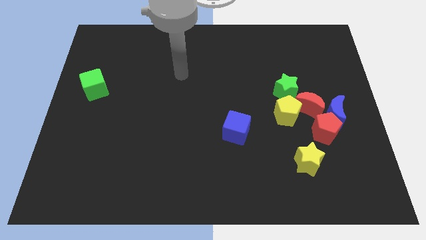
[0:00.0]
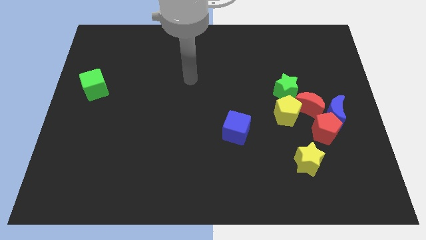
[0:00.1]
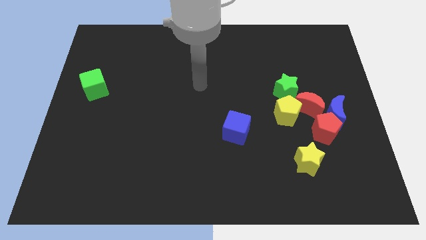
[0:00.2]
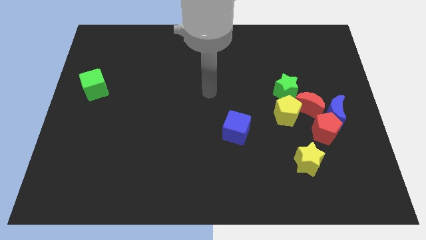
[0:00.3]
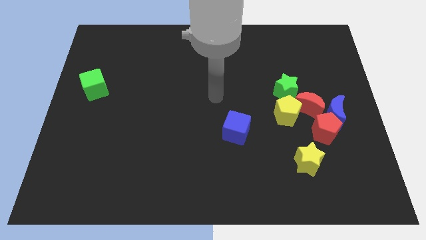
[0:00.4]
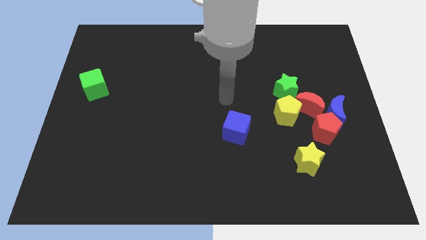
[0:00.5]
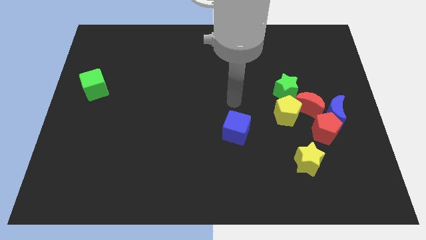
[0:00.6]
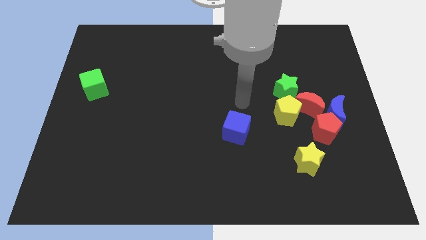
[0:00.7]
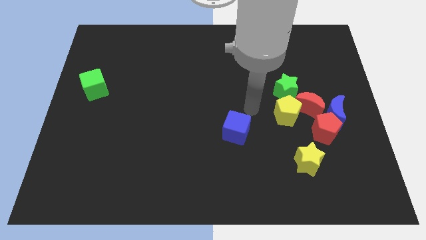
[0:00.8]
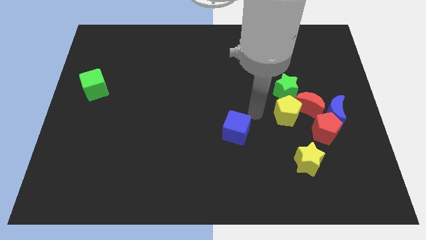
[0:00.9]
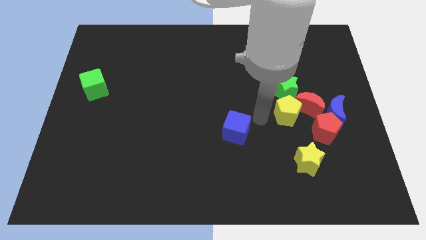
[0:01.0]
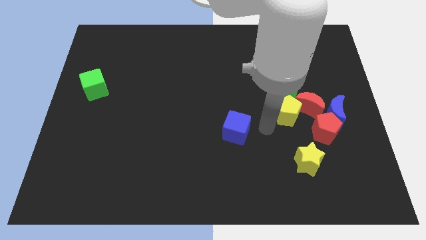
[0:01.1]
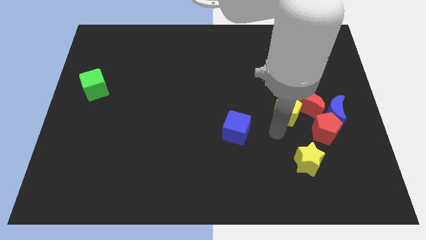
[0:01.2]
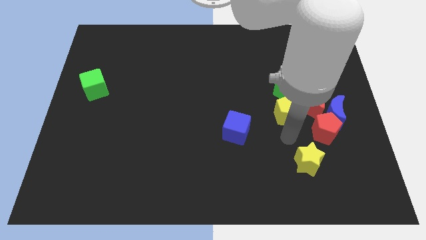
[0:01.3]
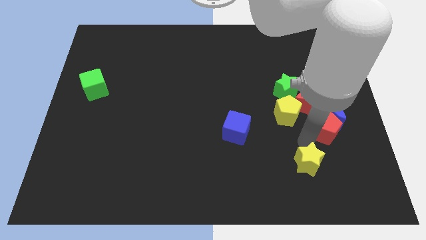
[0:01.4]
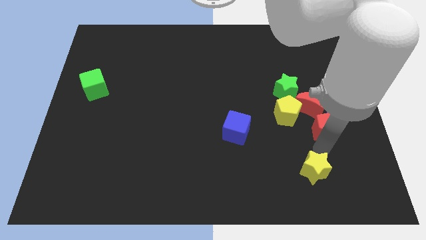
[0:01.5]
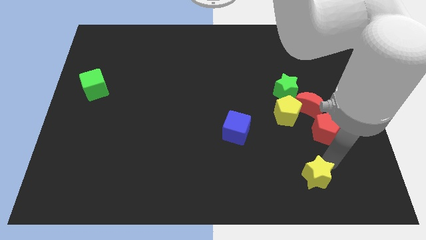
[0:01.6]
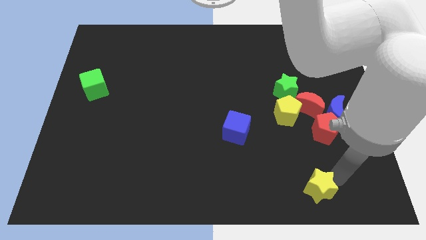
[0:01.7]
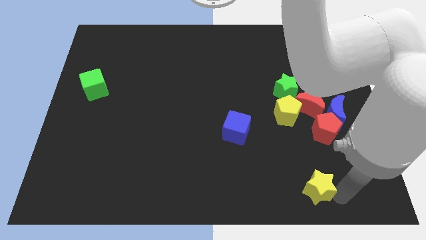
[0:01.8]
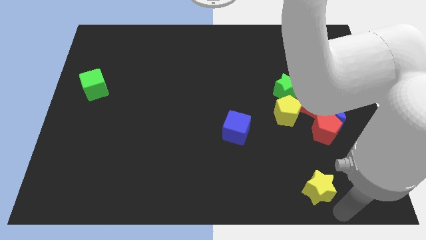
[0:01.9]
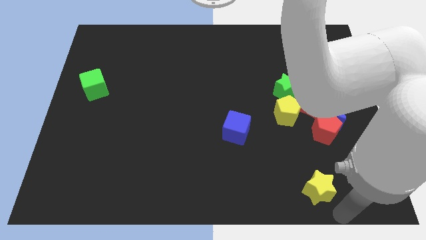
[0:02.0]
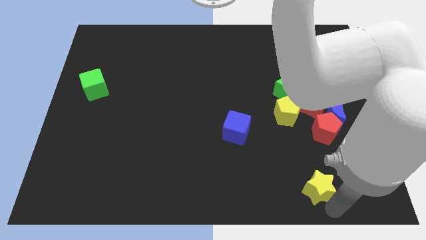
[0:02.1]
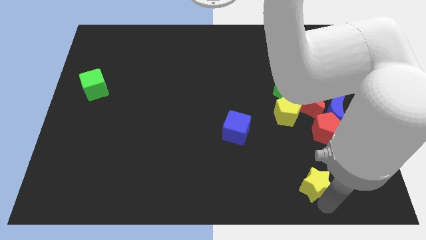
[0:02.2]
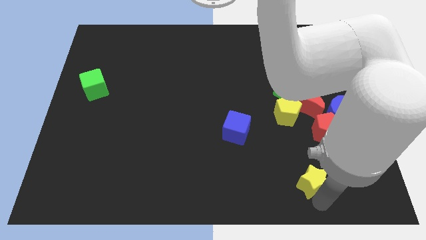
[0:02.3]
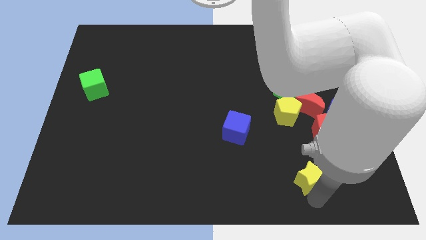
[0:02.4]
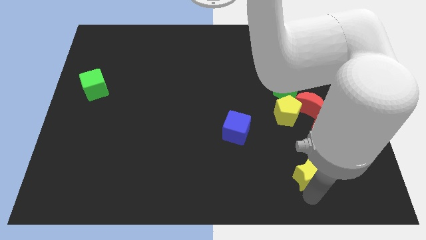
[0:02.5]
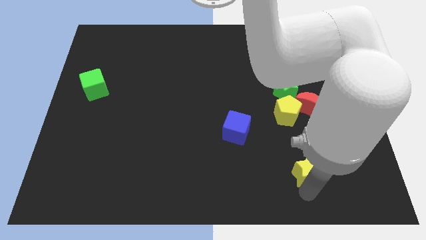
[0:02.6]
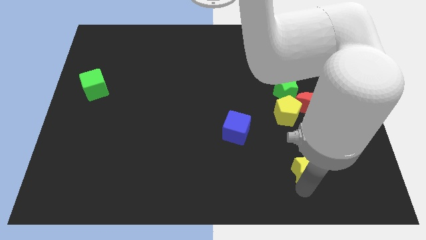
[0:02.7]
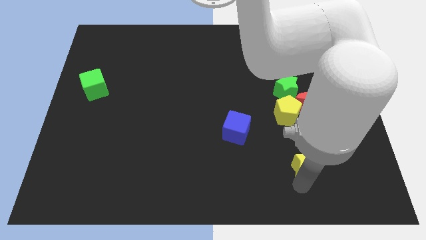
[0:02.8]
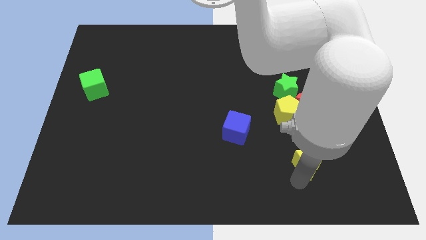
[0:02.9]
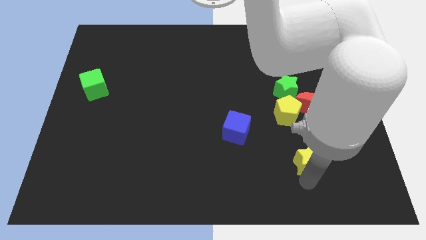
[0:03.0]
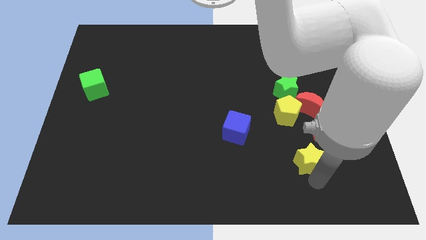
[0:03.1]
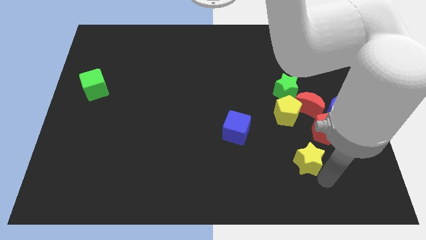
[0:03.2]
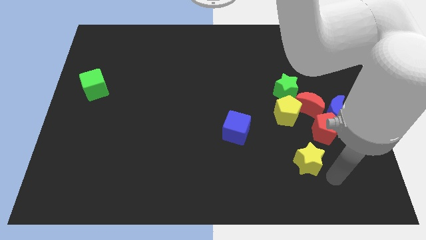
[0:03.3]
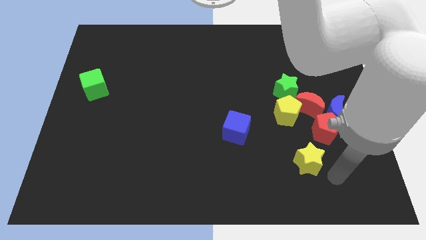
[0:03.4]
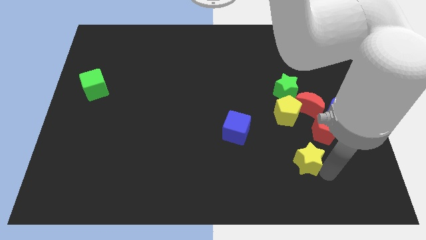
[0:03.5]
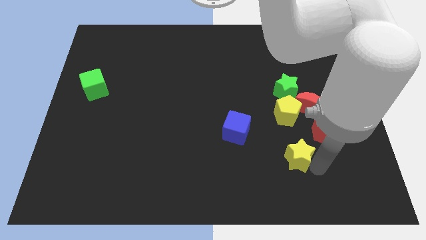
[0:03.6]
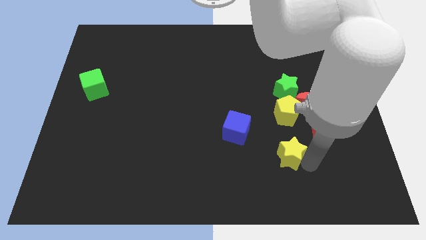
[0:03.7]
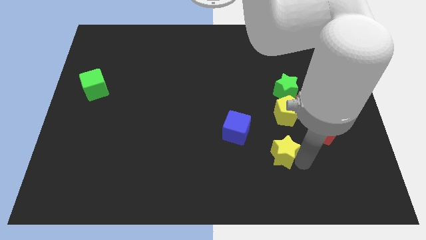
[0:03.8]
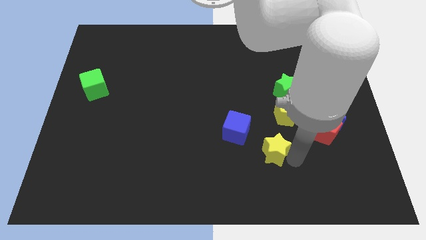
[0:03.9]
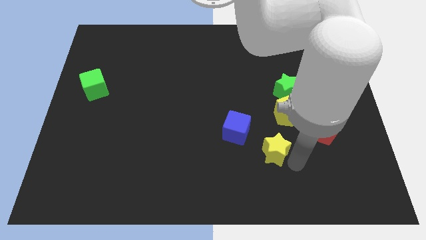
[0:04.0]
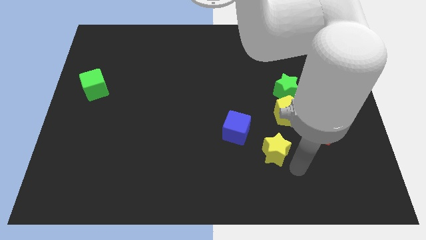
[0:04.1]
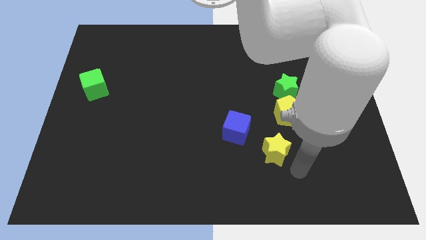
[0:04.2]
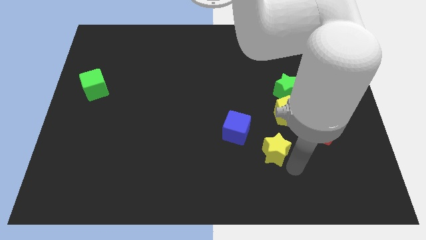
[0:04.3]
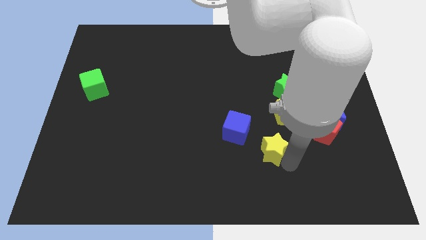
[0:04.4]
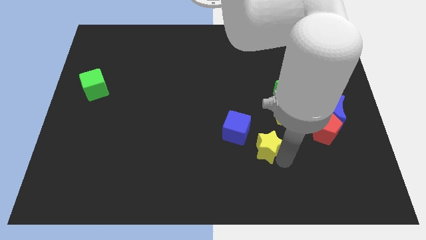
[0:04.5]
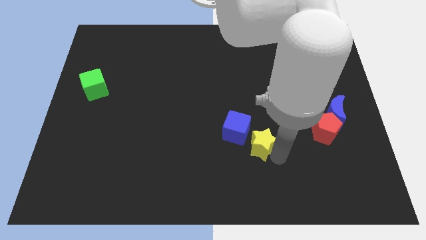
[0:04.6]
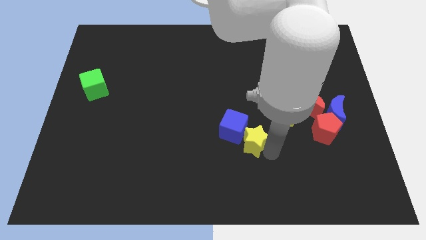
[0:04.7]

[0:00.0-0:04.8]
push the yellow star close to the blue cube

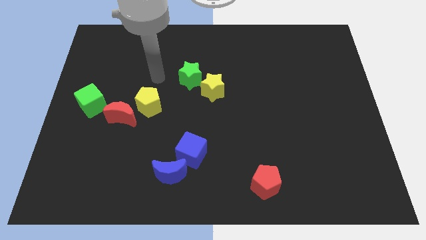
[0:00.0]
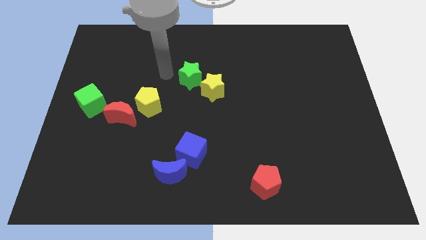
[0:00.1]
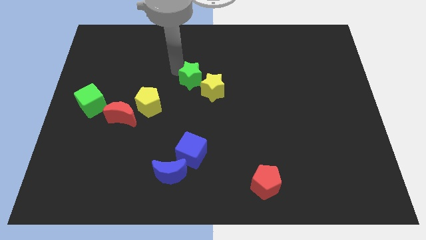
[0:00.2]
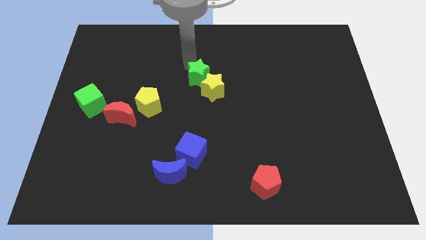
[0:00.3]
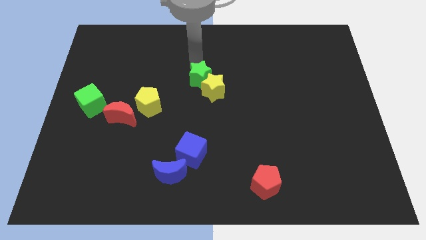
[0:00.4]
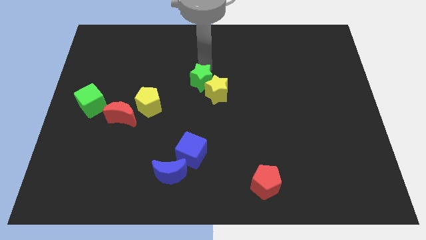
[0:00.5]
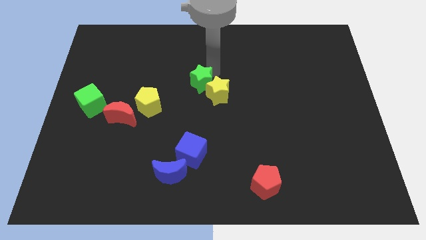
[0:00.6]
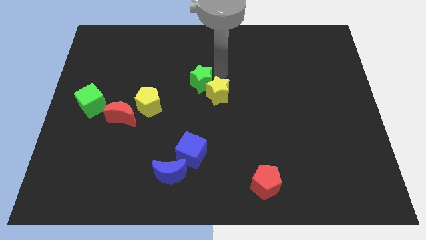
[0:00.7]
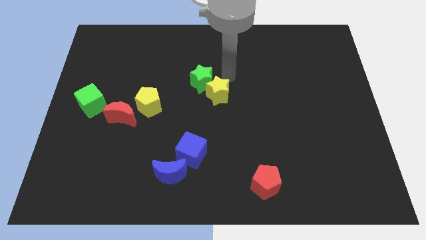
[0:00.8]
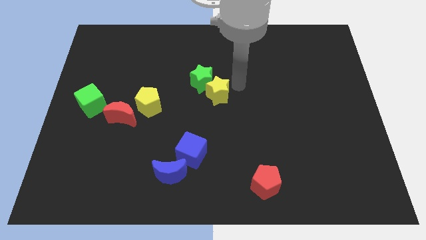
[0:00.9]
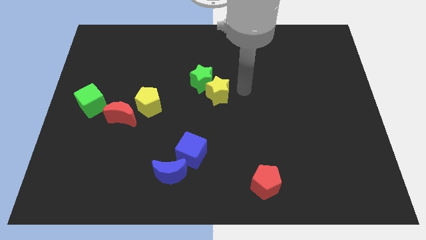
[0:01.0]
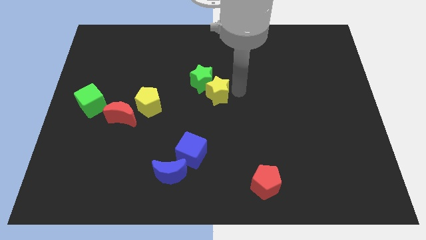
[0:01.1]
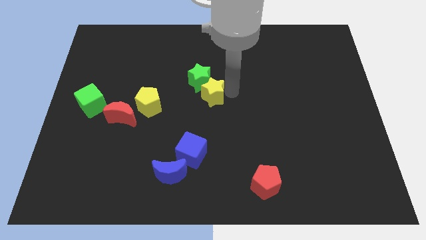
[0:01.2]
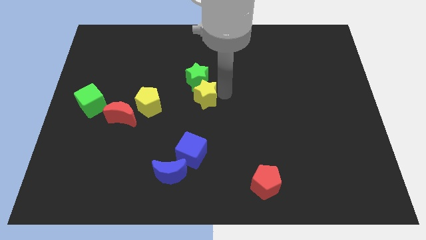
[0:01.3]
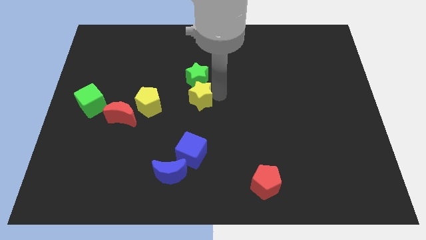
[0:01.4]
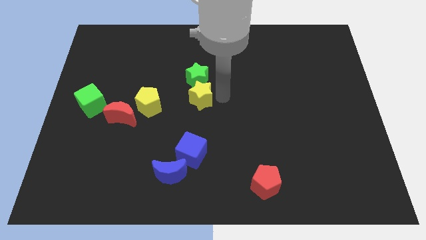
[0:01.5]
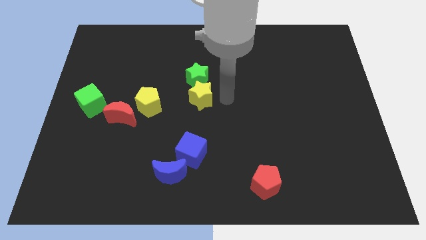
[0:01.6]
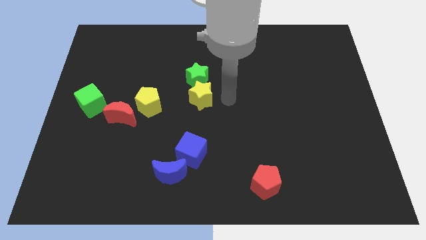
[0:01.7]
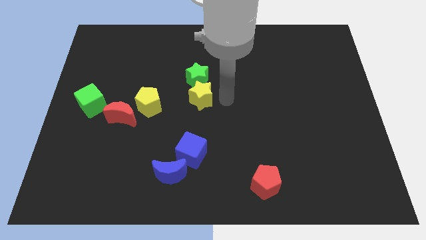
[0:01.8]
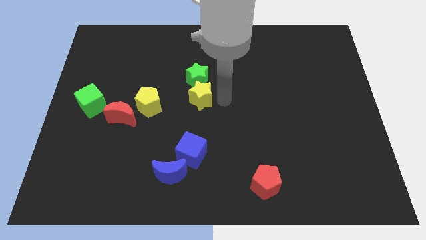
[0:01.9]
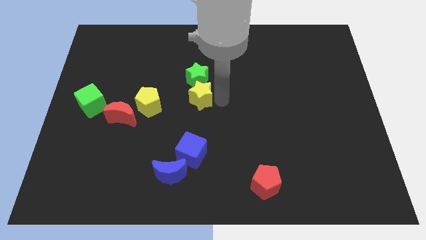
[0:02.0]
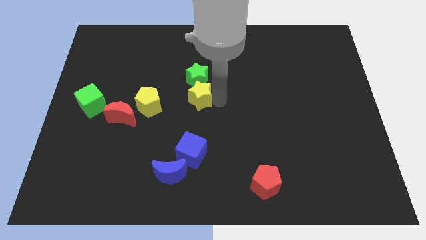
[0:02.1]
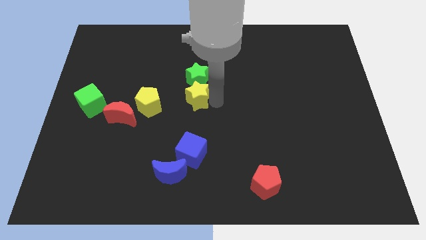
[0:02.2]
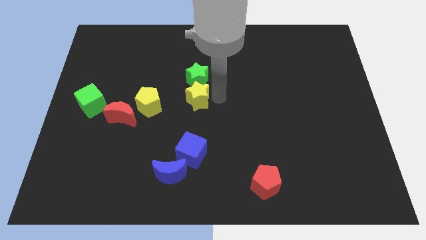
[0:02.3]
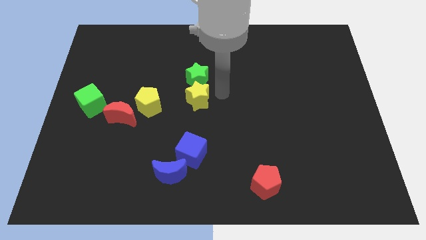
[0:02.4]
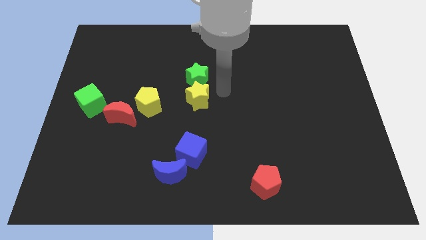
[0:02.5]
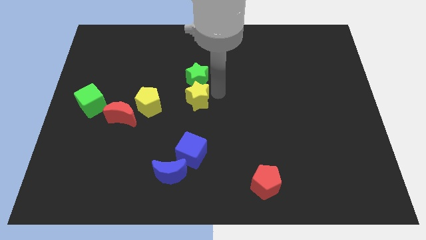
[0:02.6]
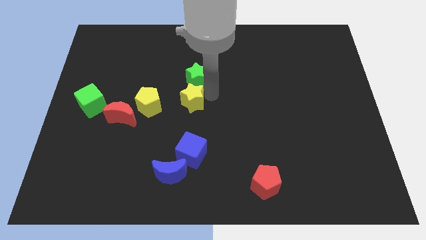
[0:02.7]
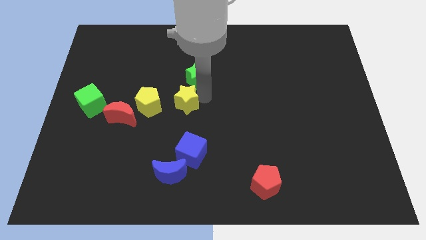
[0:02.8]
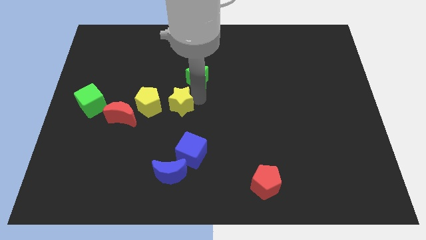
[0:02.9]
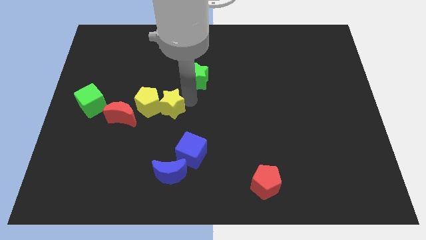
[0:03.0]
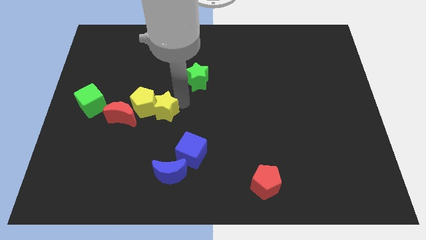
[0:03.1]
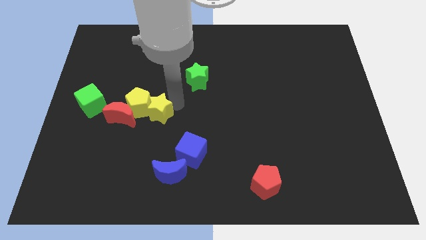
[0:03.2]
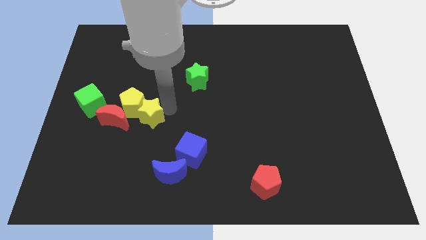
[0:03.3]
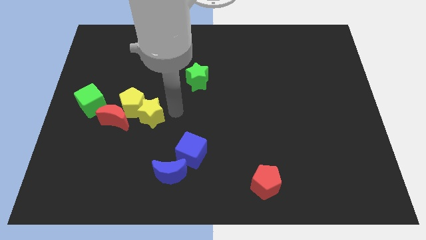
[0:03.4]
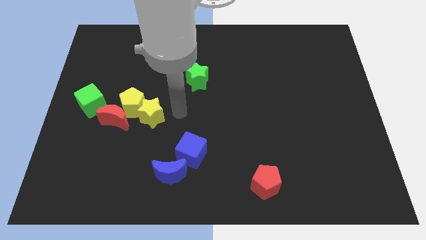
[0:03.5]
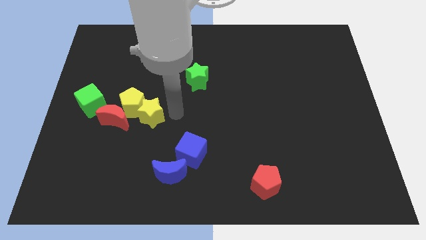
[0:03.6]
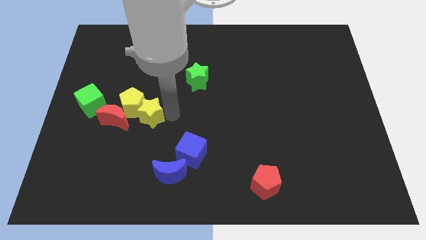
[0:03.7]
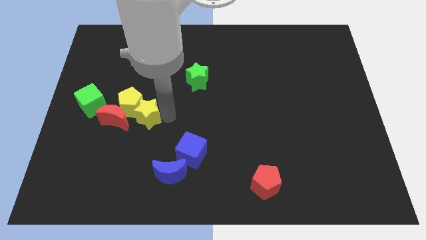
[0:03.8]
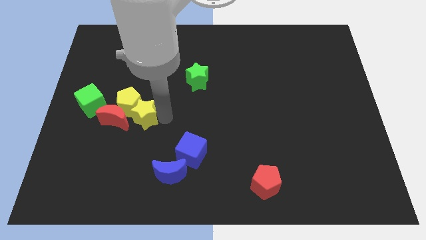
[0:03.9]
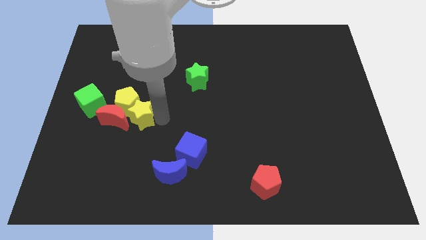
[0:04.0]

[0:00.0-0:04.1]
move the yellow star close to the red moon
